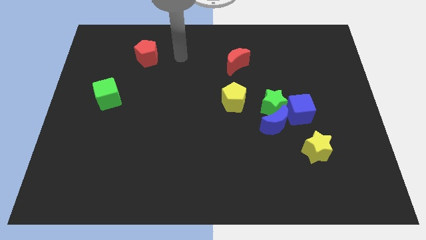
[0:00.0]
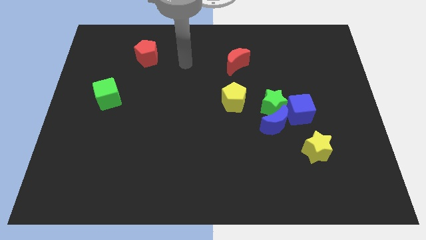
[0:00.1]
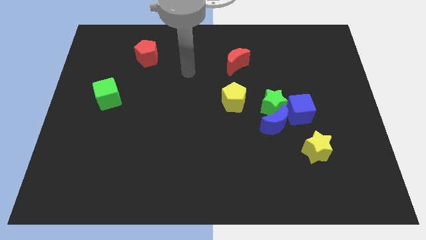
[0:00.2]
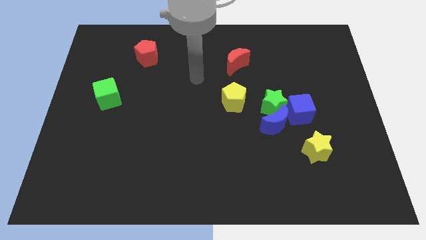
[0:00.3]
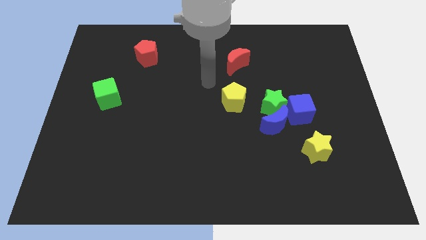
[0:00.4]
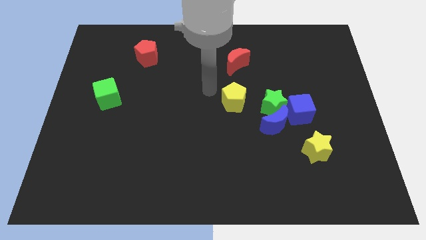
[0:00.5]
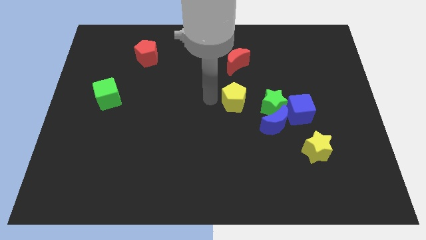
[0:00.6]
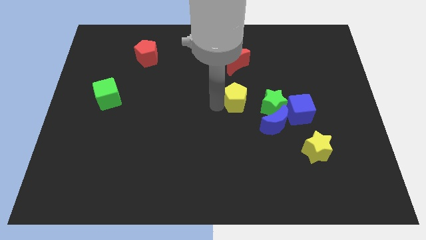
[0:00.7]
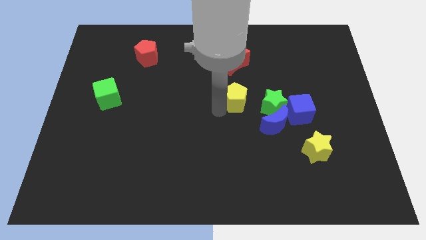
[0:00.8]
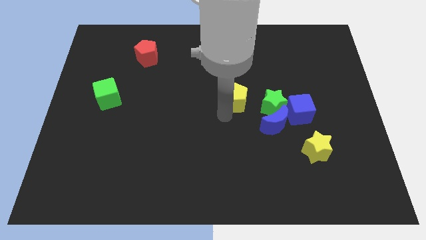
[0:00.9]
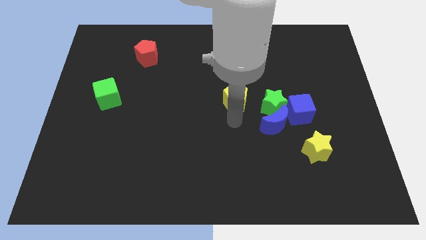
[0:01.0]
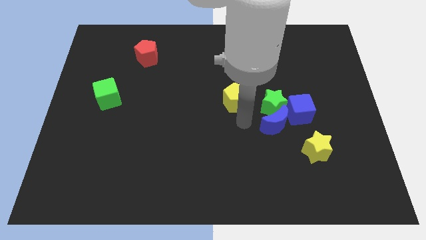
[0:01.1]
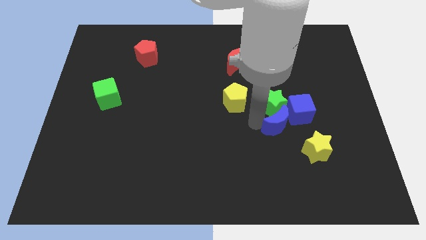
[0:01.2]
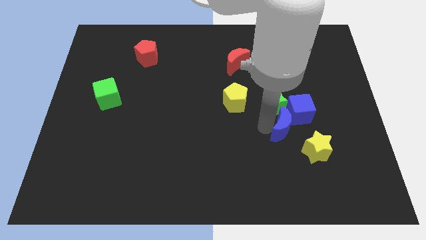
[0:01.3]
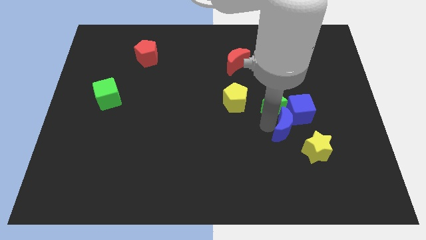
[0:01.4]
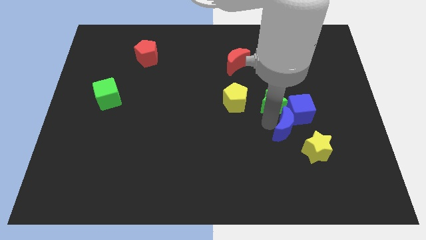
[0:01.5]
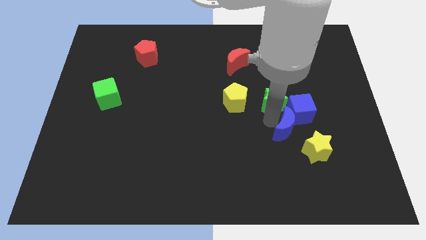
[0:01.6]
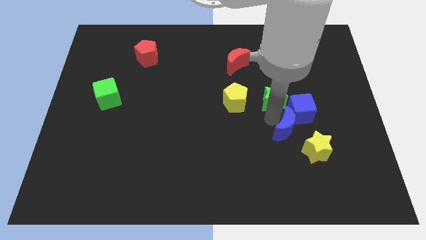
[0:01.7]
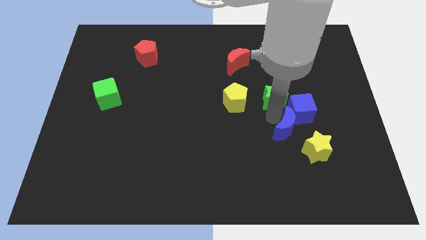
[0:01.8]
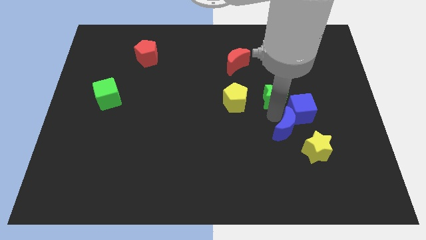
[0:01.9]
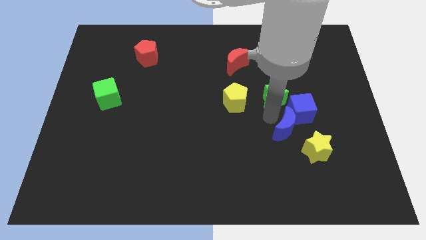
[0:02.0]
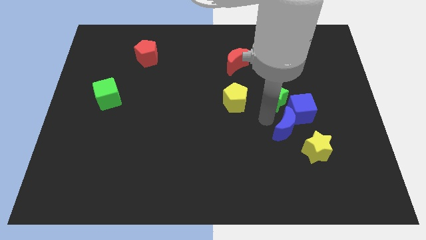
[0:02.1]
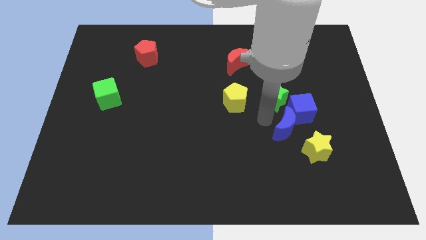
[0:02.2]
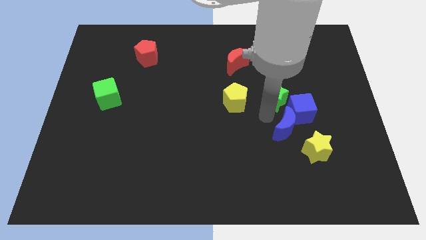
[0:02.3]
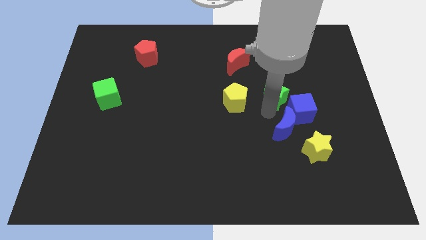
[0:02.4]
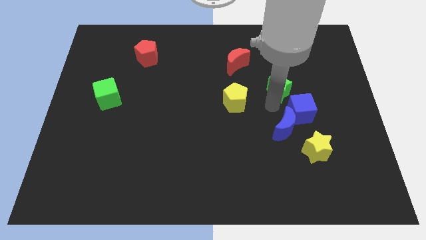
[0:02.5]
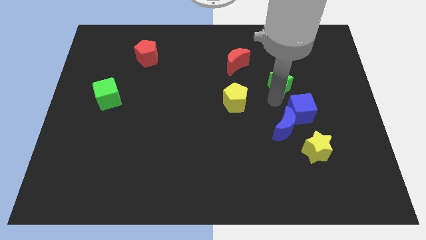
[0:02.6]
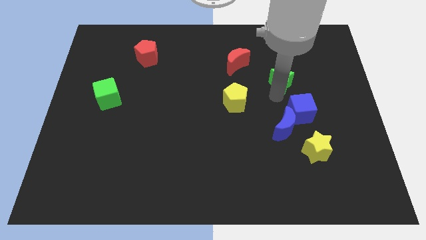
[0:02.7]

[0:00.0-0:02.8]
pull the green star apart from the clump

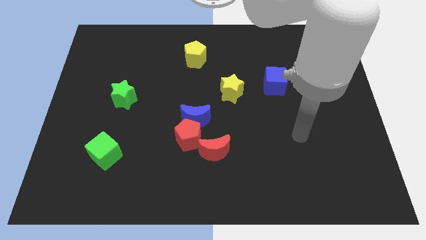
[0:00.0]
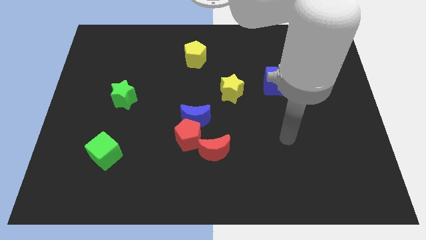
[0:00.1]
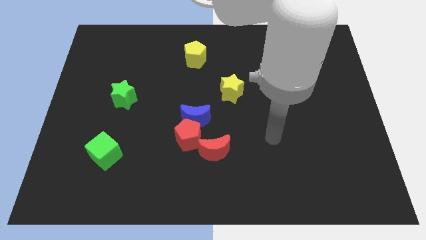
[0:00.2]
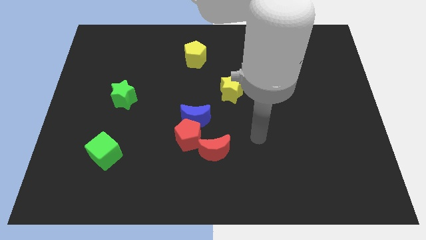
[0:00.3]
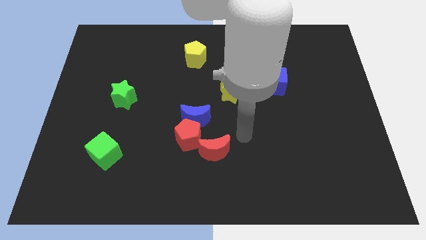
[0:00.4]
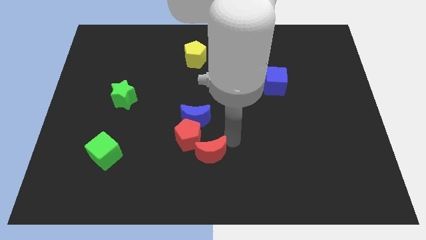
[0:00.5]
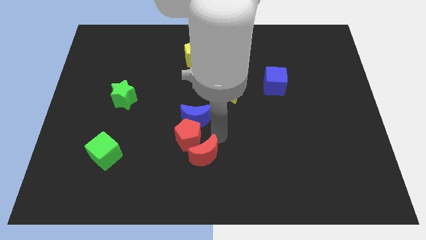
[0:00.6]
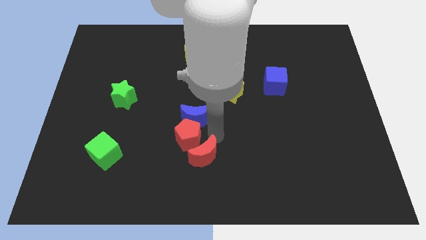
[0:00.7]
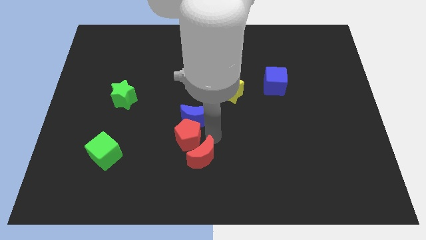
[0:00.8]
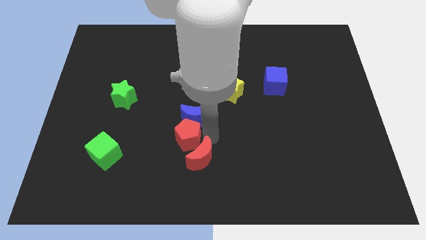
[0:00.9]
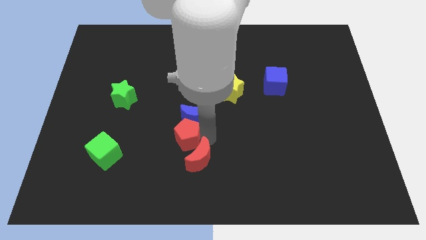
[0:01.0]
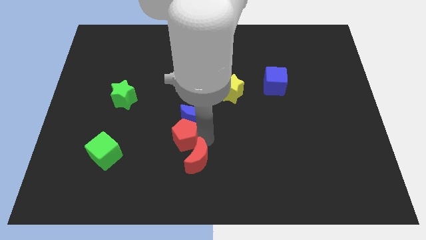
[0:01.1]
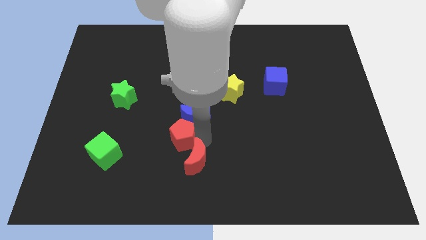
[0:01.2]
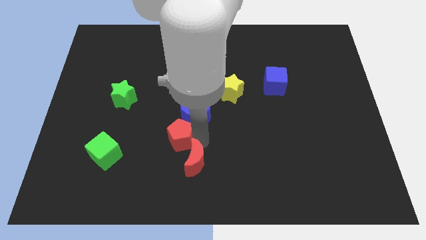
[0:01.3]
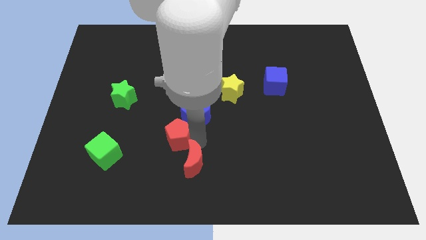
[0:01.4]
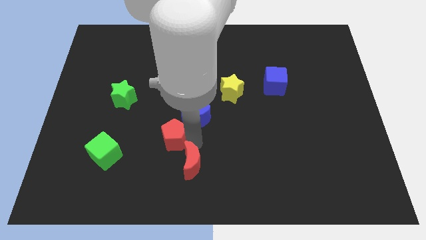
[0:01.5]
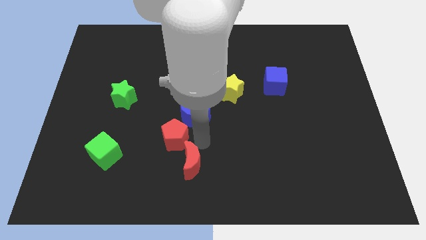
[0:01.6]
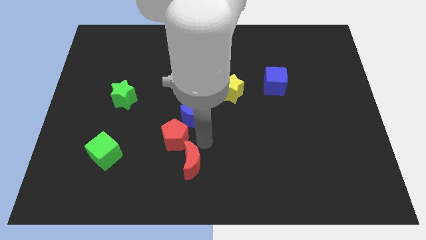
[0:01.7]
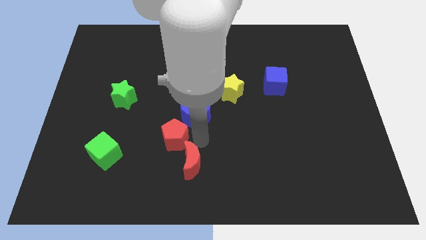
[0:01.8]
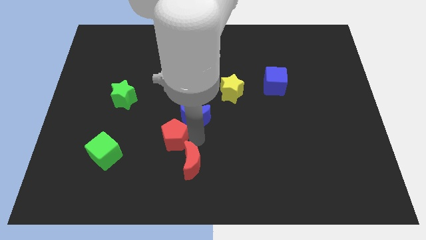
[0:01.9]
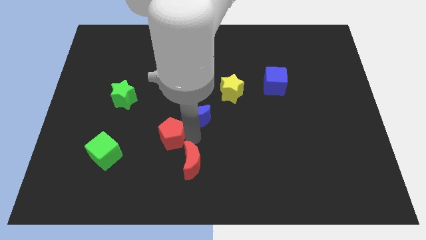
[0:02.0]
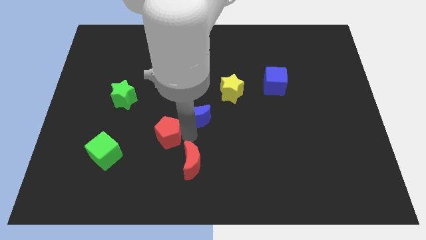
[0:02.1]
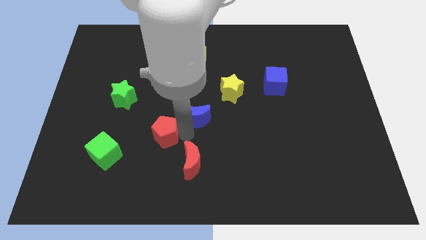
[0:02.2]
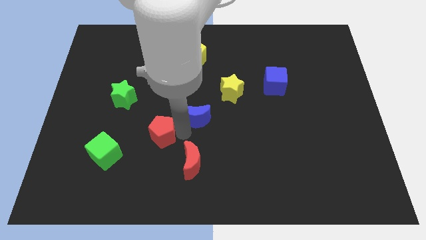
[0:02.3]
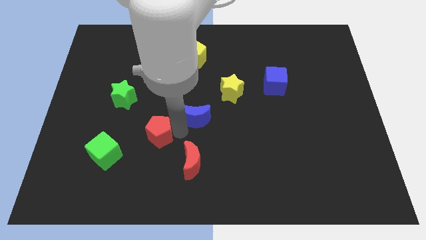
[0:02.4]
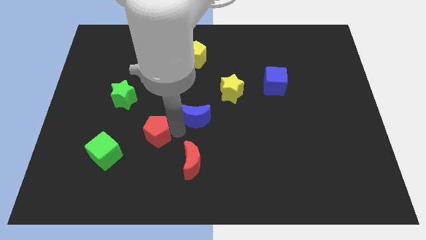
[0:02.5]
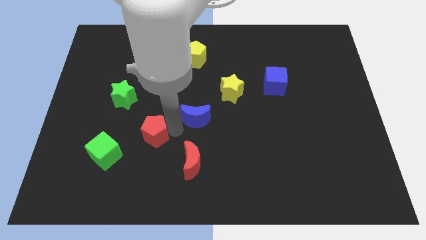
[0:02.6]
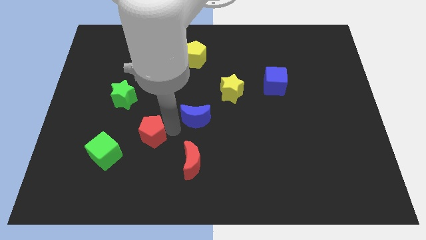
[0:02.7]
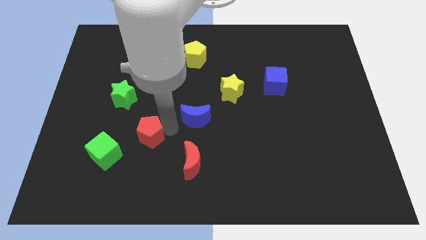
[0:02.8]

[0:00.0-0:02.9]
move the red pentagon away from the blue moon and red moon

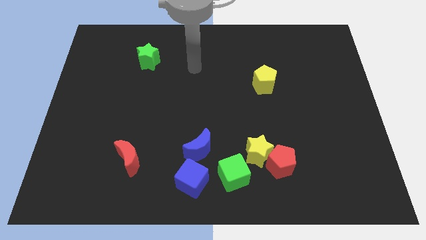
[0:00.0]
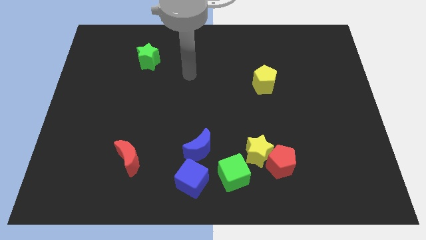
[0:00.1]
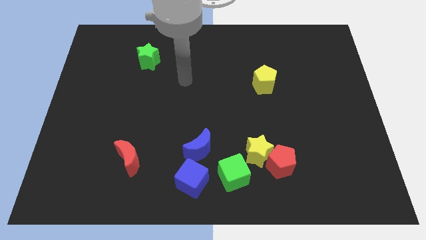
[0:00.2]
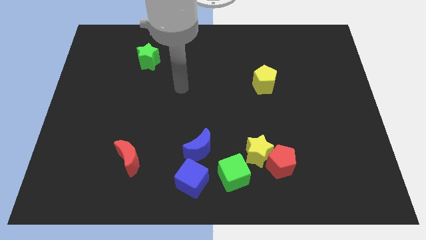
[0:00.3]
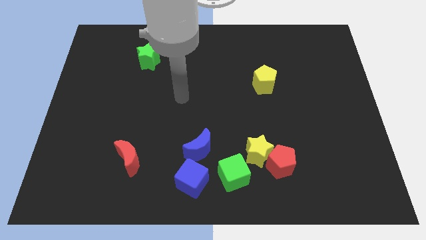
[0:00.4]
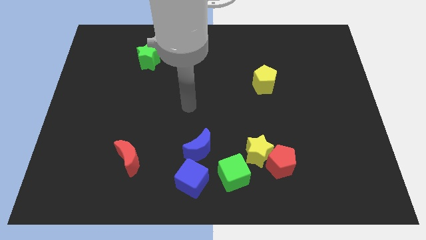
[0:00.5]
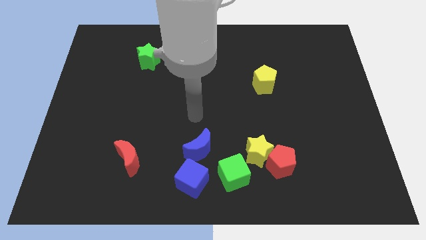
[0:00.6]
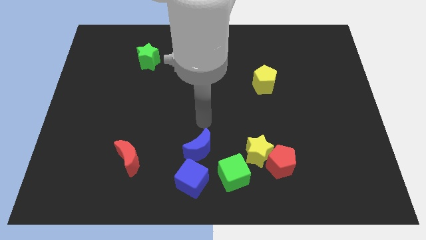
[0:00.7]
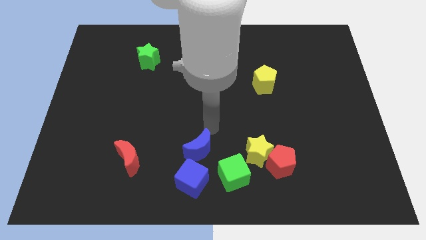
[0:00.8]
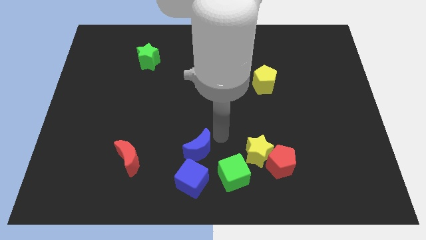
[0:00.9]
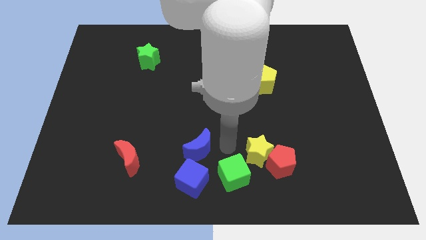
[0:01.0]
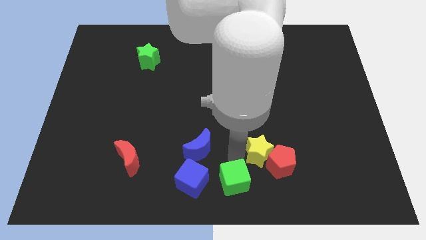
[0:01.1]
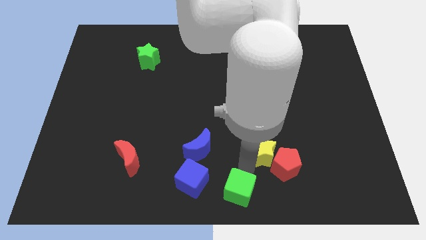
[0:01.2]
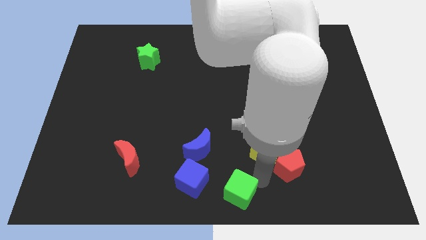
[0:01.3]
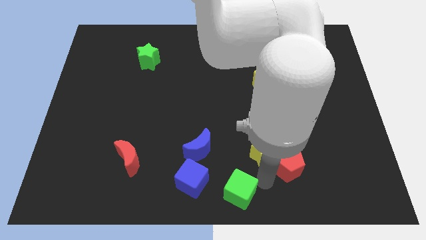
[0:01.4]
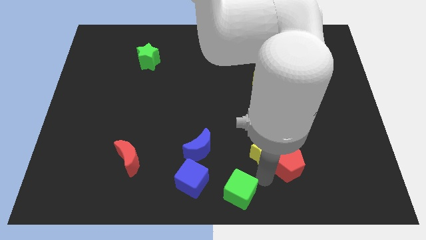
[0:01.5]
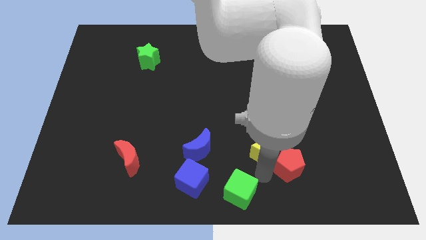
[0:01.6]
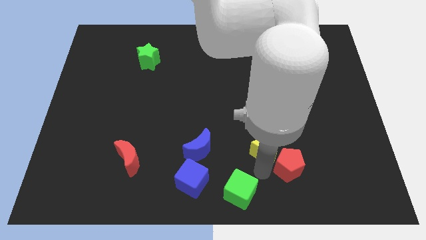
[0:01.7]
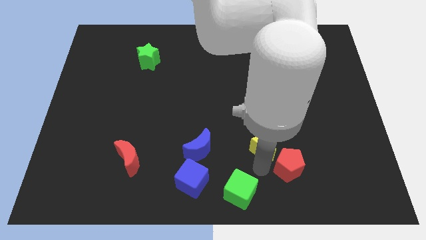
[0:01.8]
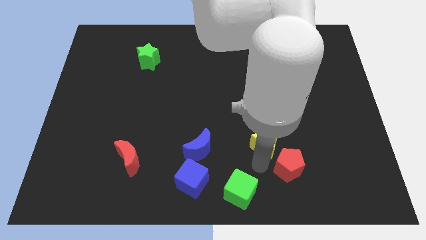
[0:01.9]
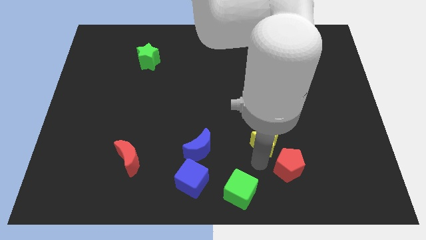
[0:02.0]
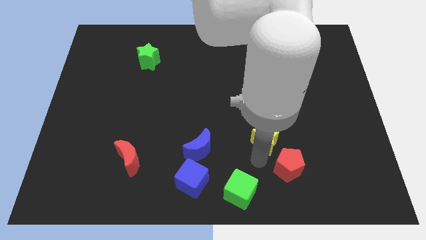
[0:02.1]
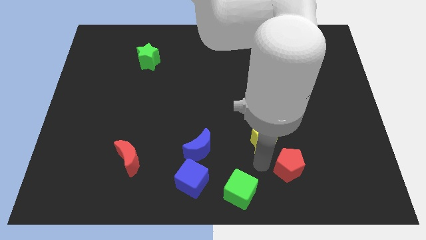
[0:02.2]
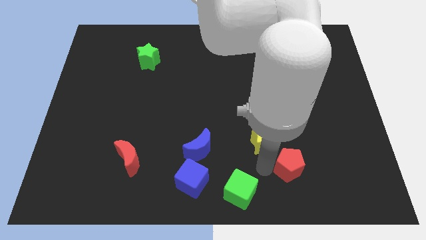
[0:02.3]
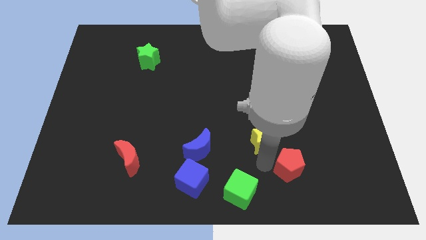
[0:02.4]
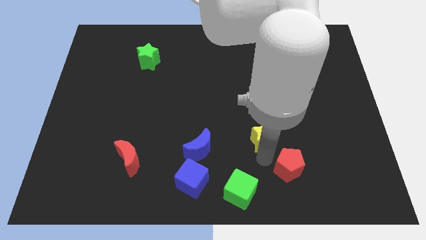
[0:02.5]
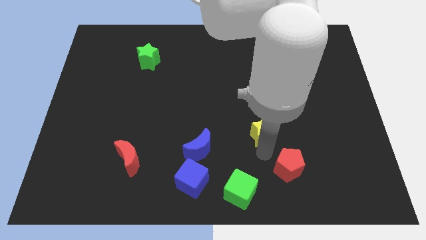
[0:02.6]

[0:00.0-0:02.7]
separate the yellow star from the red pentagon and green cube

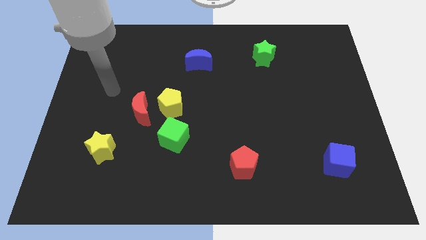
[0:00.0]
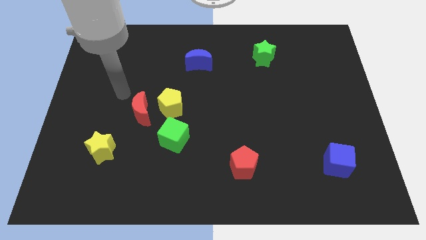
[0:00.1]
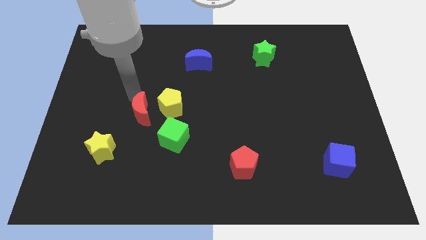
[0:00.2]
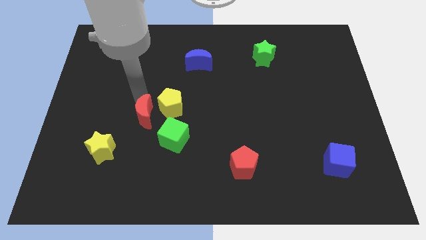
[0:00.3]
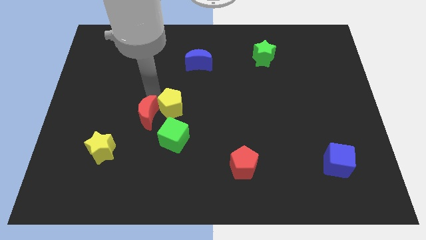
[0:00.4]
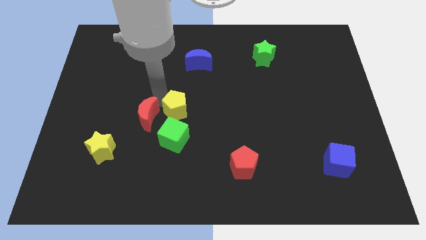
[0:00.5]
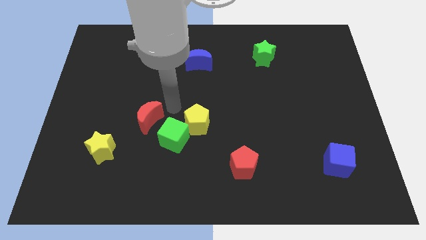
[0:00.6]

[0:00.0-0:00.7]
separate the red moon from the yellow pentagon

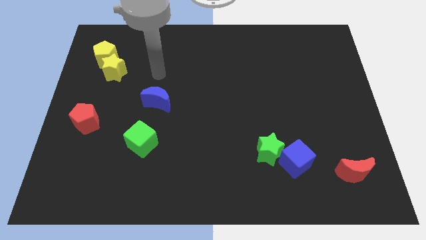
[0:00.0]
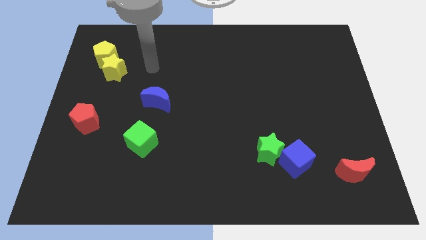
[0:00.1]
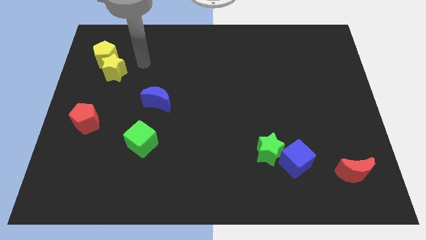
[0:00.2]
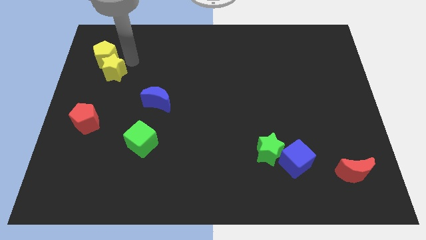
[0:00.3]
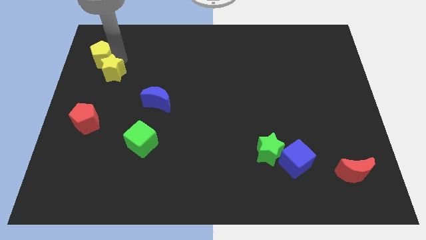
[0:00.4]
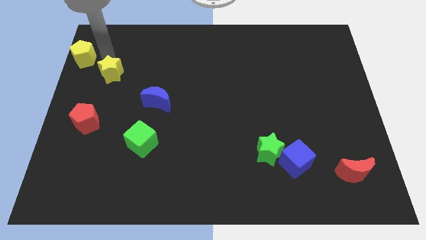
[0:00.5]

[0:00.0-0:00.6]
separate the yellow star from the yellow pentagon
